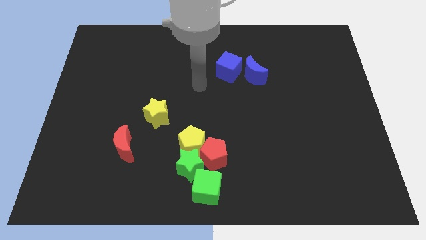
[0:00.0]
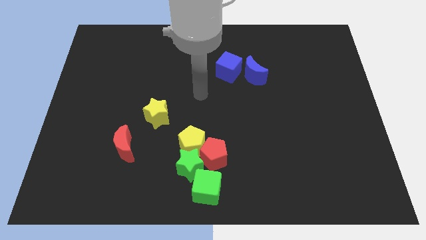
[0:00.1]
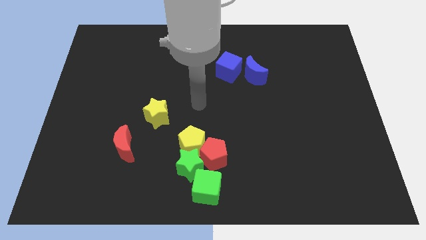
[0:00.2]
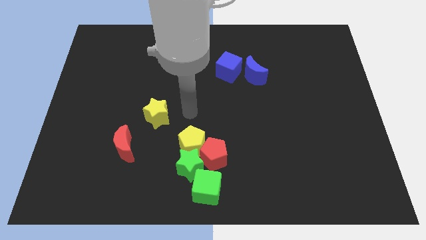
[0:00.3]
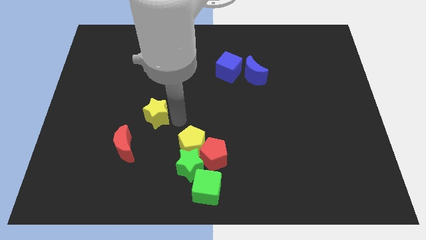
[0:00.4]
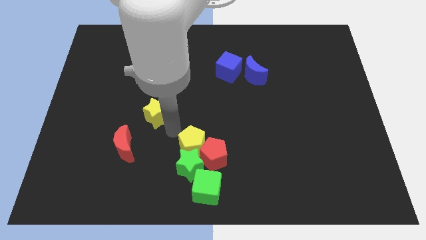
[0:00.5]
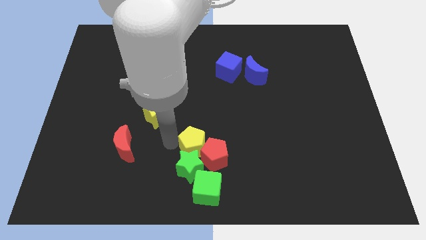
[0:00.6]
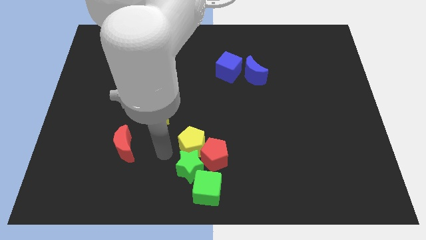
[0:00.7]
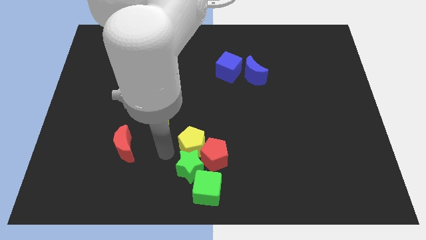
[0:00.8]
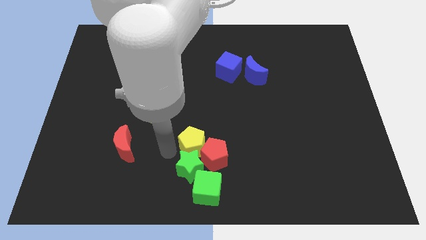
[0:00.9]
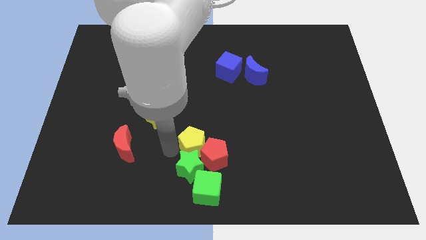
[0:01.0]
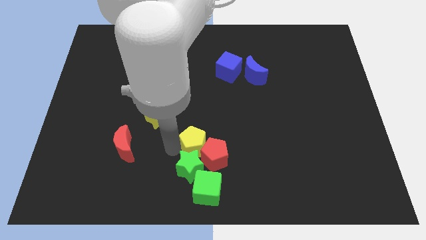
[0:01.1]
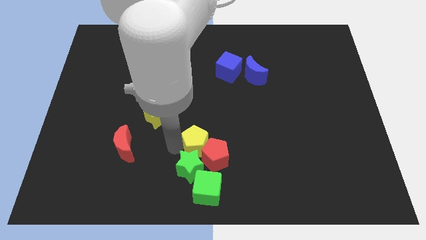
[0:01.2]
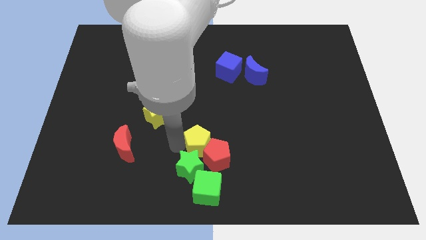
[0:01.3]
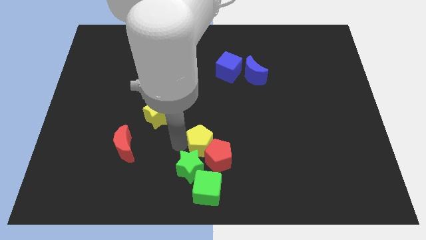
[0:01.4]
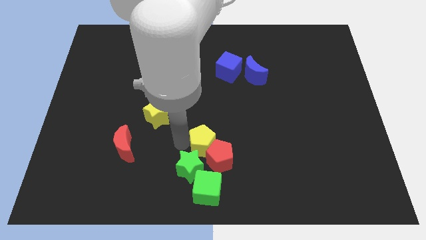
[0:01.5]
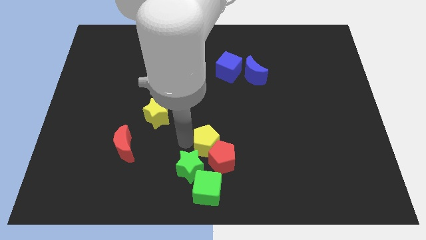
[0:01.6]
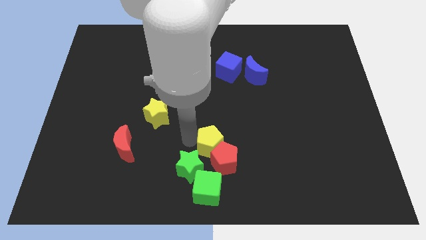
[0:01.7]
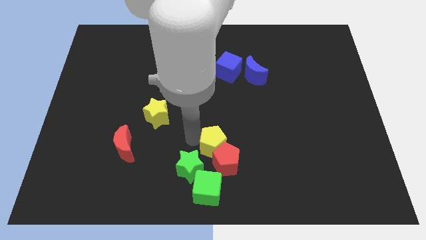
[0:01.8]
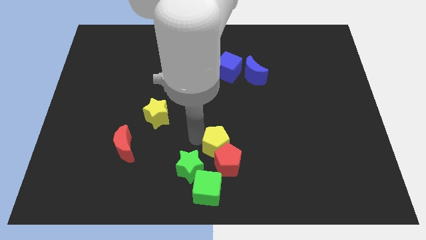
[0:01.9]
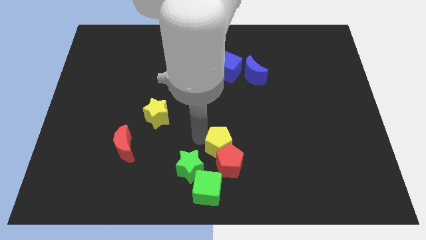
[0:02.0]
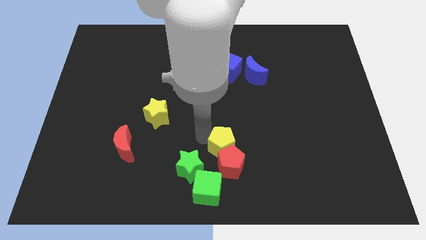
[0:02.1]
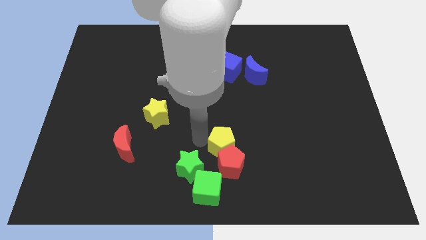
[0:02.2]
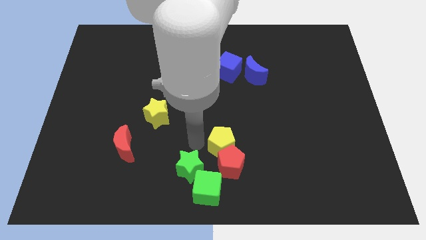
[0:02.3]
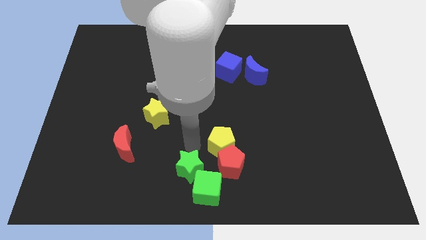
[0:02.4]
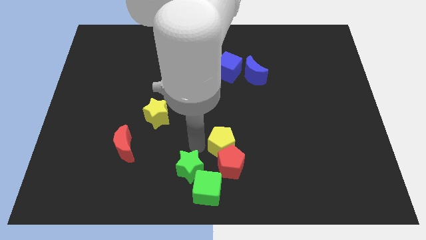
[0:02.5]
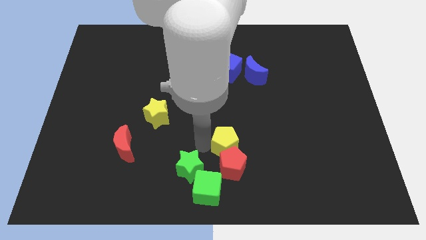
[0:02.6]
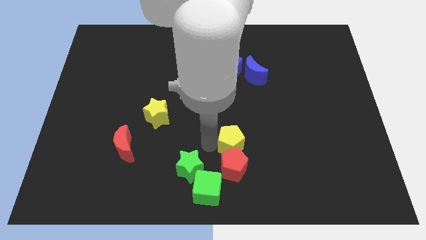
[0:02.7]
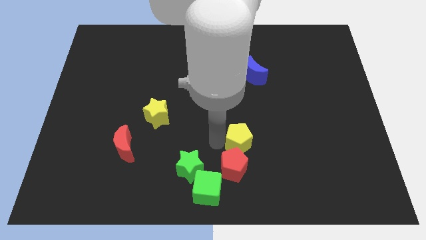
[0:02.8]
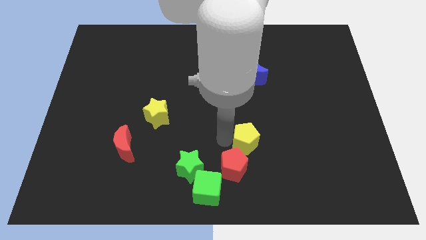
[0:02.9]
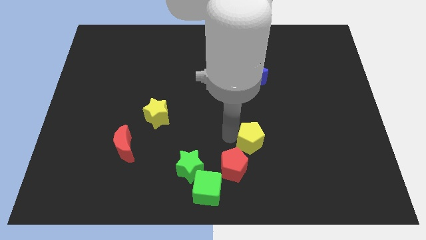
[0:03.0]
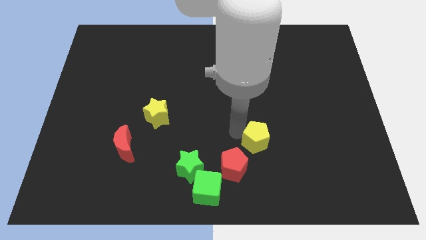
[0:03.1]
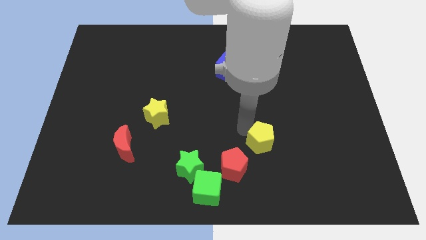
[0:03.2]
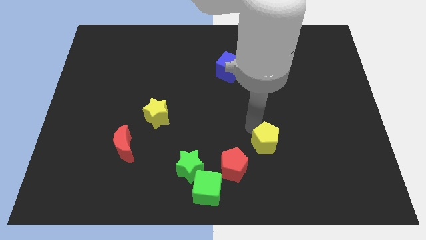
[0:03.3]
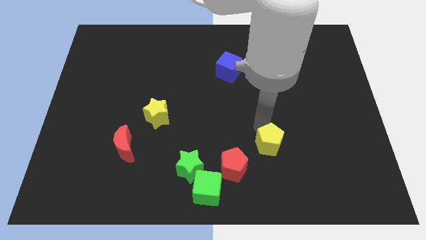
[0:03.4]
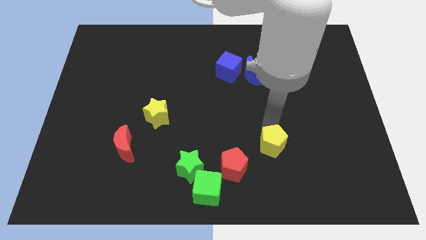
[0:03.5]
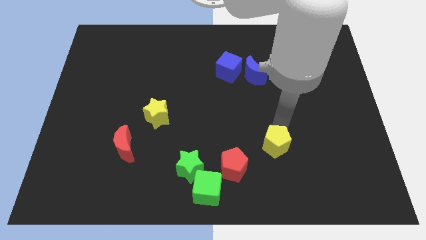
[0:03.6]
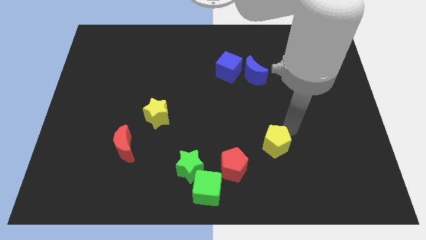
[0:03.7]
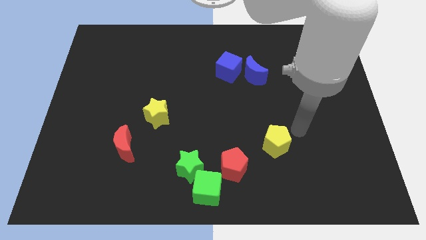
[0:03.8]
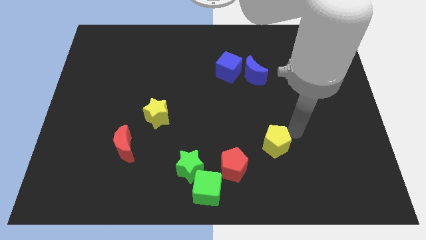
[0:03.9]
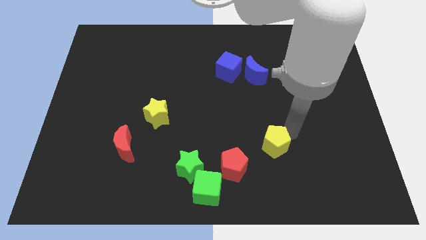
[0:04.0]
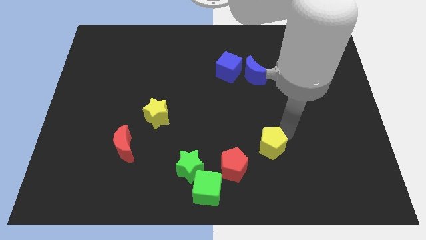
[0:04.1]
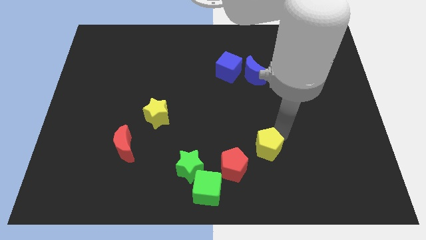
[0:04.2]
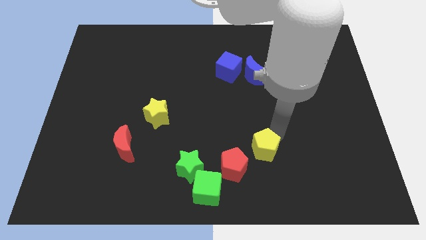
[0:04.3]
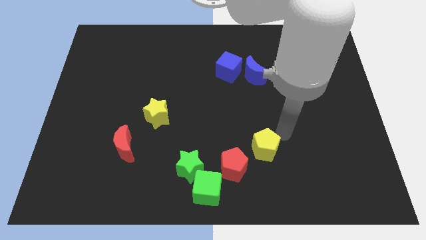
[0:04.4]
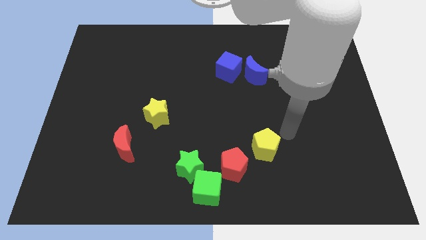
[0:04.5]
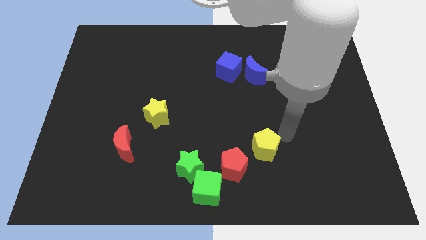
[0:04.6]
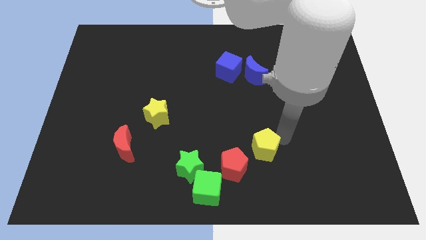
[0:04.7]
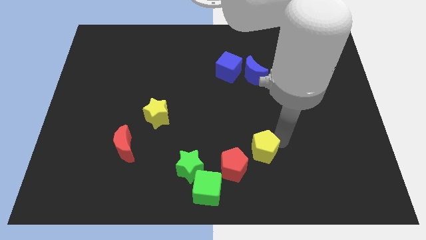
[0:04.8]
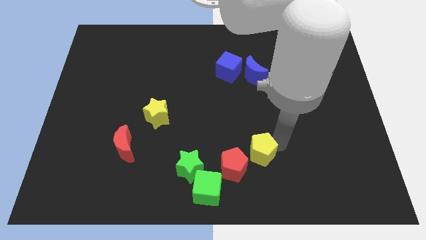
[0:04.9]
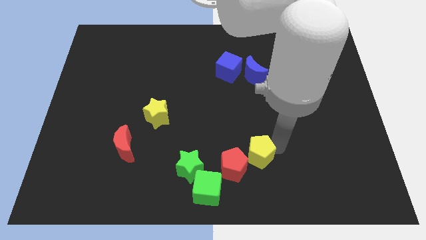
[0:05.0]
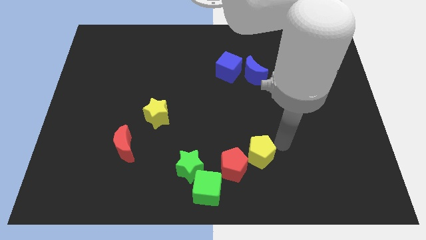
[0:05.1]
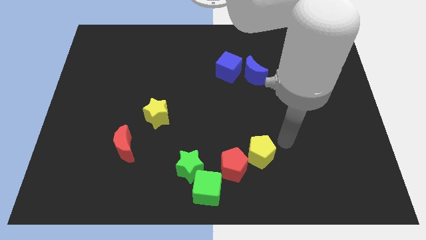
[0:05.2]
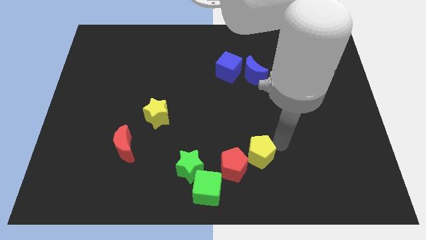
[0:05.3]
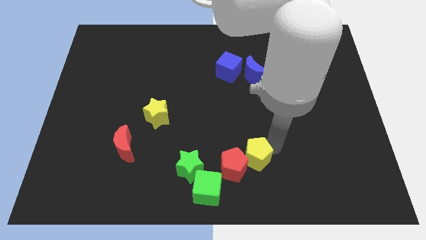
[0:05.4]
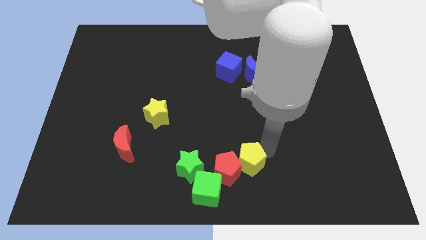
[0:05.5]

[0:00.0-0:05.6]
move the yellow pentagon diagonally up and to the right of the green cube

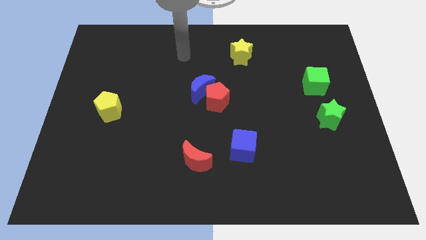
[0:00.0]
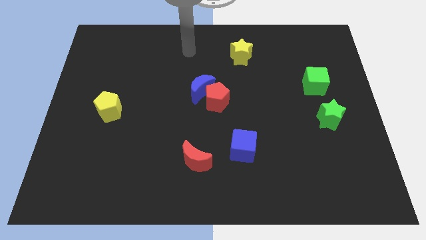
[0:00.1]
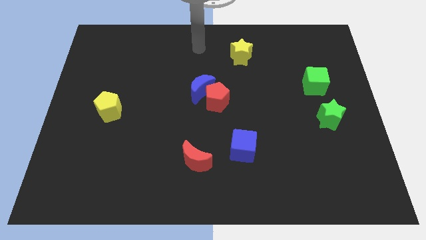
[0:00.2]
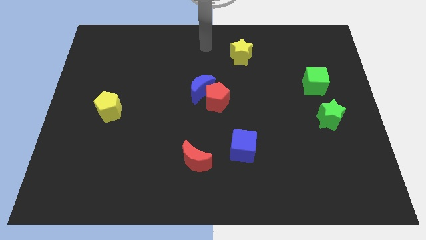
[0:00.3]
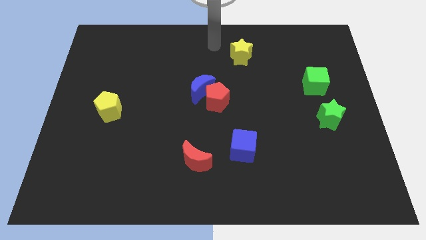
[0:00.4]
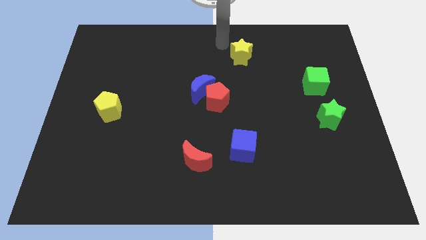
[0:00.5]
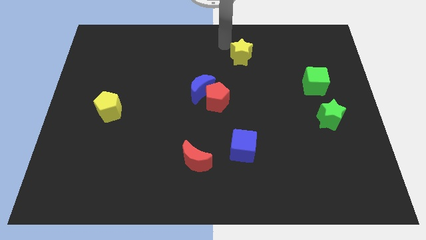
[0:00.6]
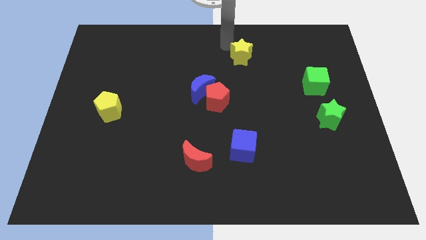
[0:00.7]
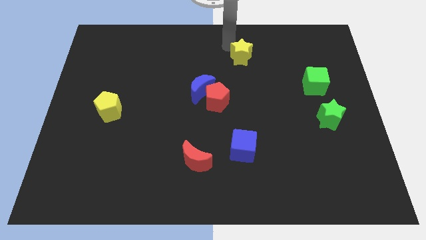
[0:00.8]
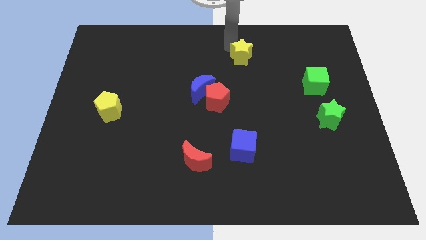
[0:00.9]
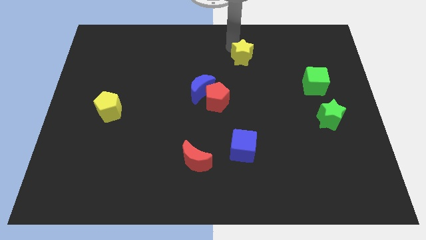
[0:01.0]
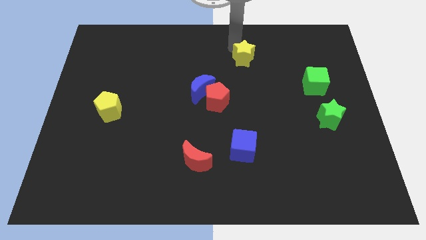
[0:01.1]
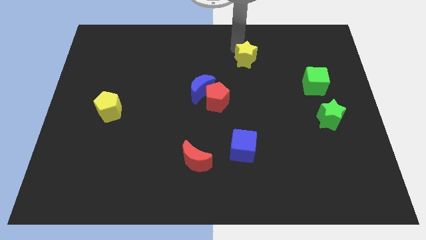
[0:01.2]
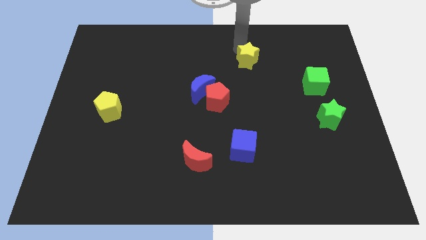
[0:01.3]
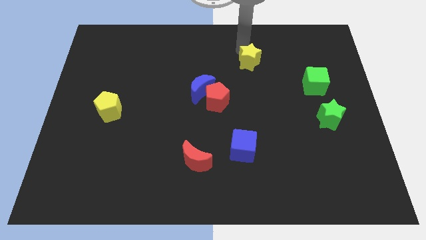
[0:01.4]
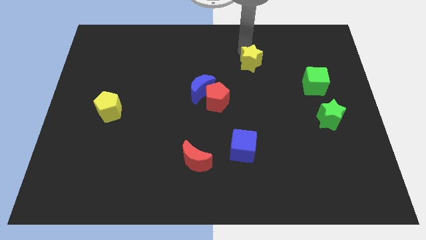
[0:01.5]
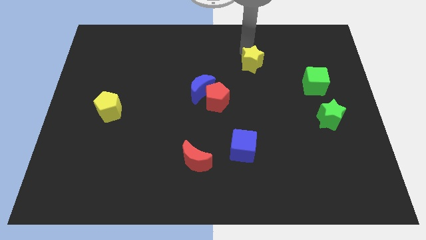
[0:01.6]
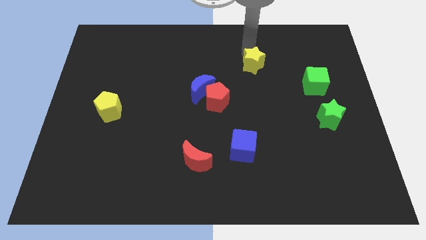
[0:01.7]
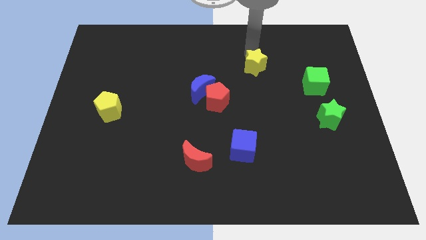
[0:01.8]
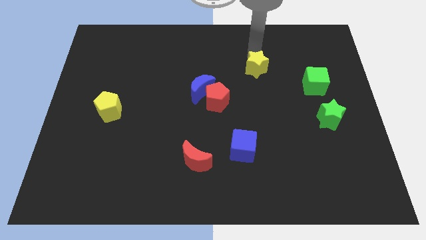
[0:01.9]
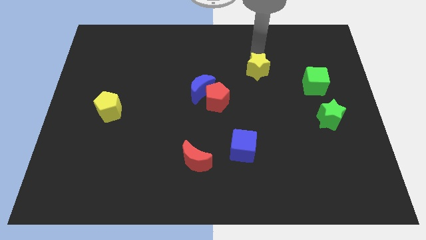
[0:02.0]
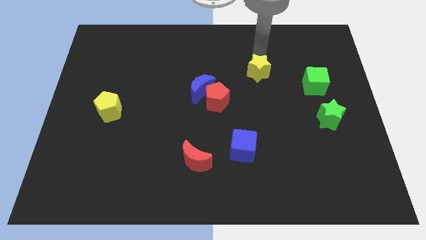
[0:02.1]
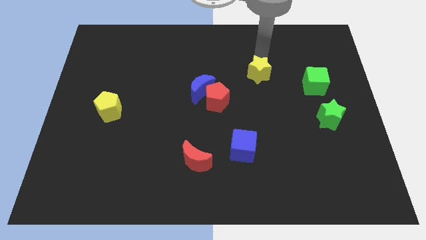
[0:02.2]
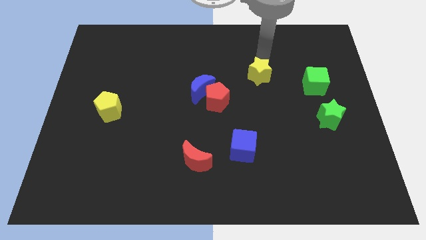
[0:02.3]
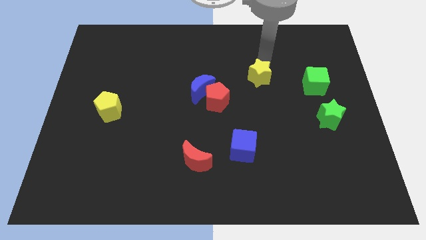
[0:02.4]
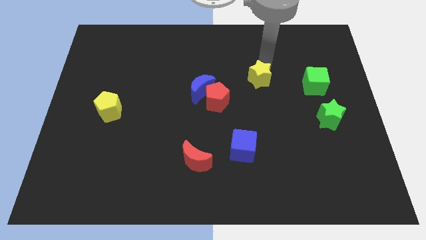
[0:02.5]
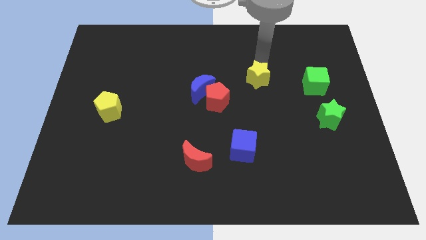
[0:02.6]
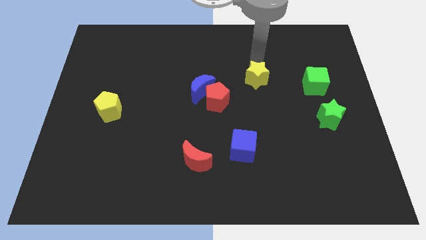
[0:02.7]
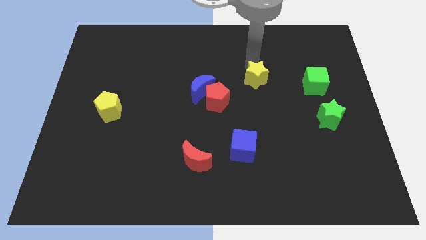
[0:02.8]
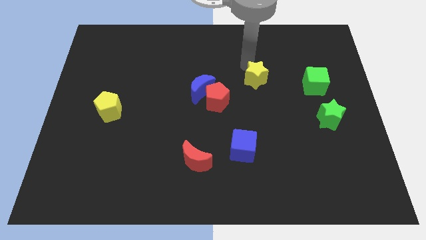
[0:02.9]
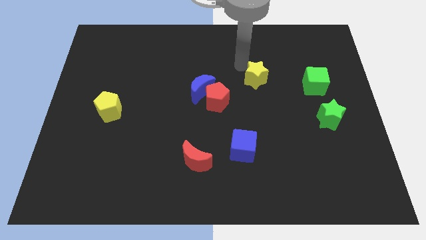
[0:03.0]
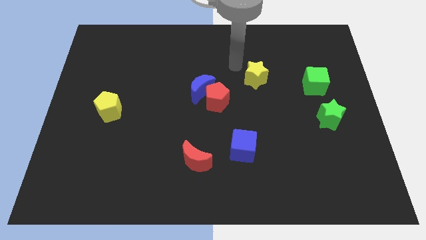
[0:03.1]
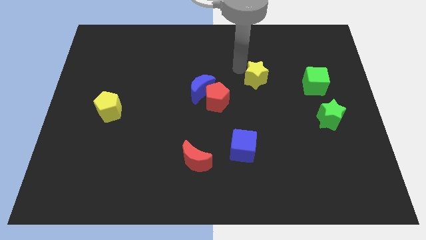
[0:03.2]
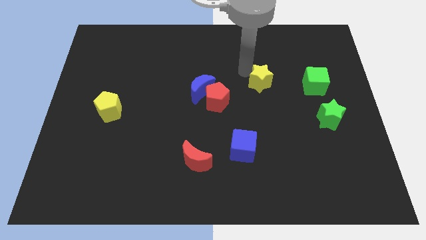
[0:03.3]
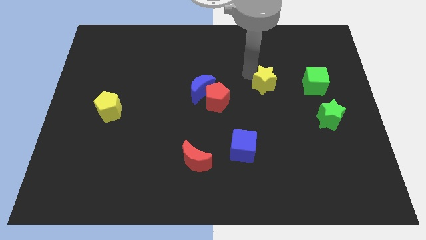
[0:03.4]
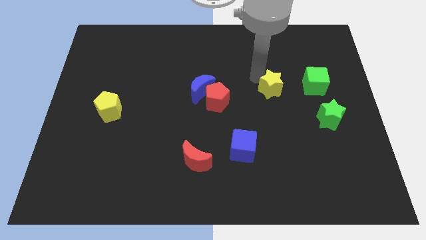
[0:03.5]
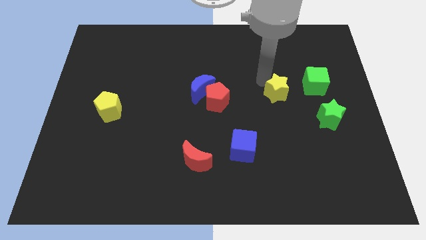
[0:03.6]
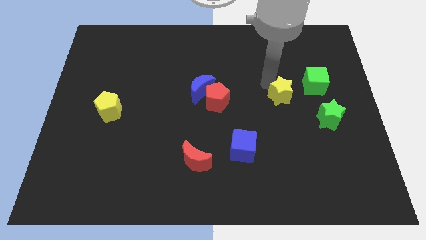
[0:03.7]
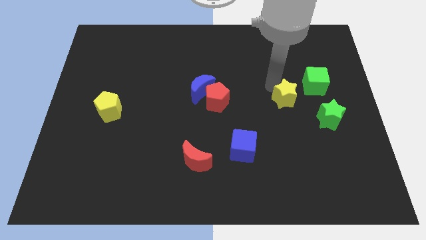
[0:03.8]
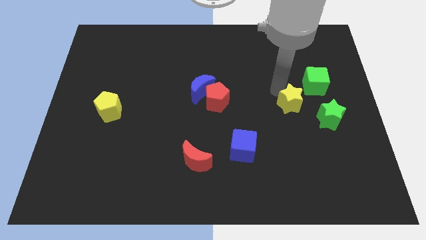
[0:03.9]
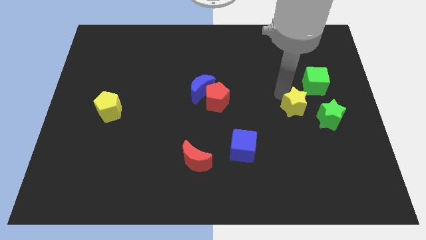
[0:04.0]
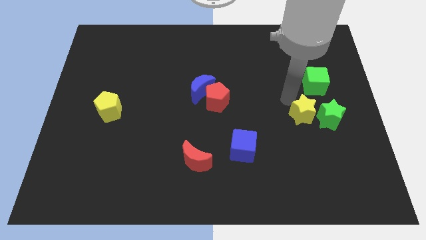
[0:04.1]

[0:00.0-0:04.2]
move the yellow star to the bottom of the green cube
